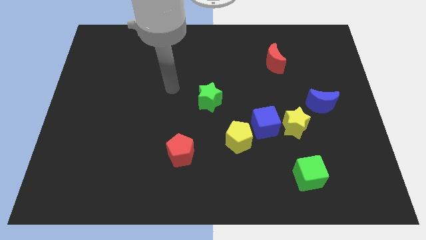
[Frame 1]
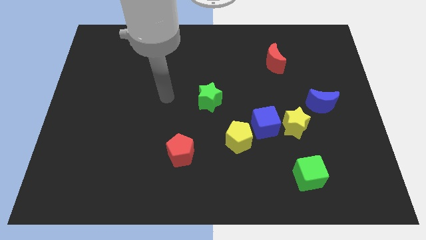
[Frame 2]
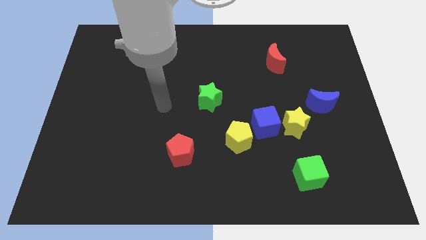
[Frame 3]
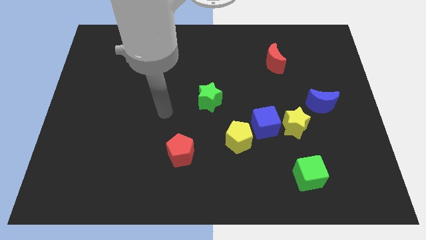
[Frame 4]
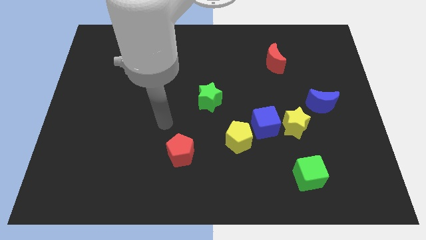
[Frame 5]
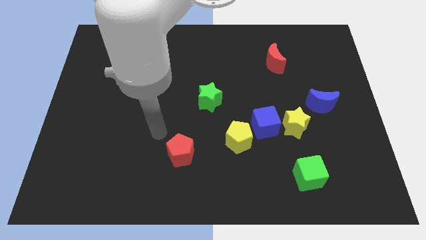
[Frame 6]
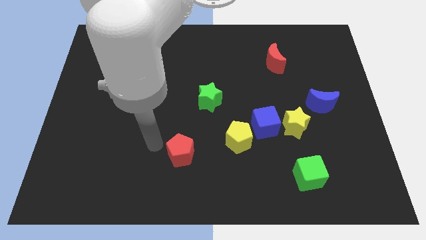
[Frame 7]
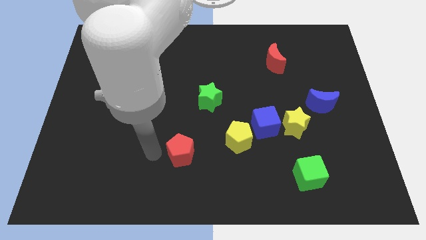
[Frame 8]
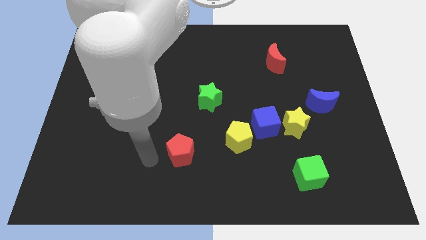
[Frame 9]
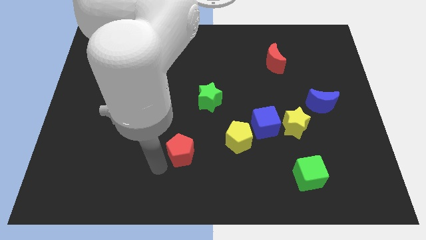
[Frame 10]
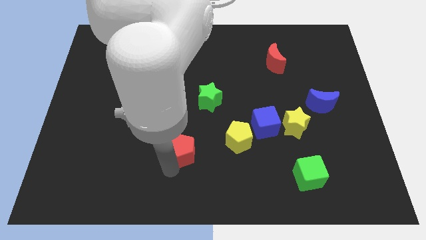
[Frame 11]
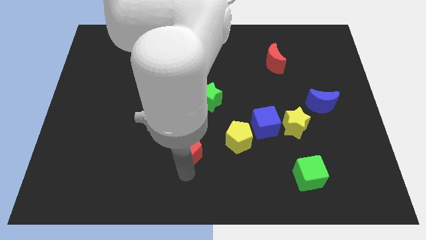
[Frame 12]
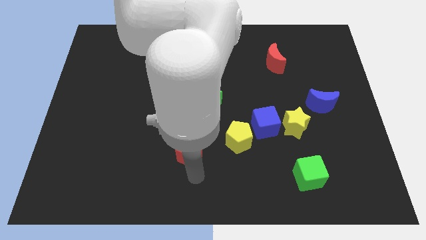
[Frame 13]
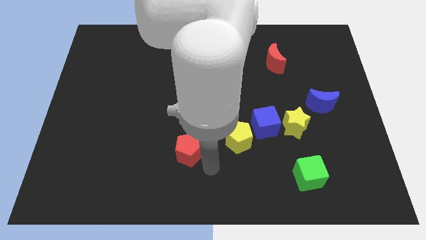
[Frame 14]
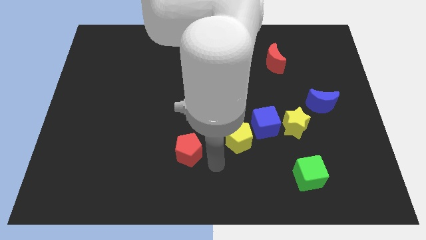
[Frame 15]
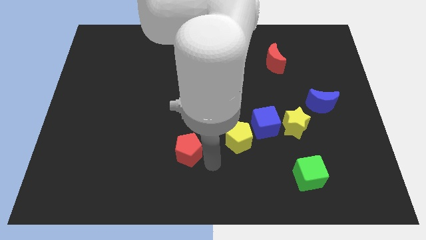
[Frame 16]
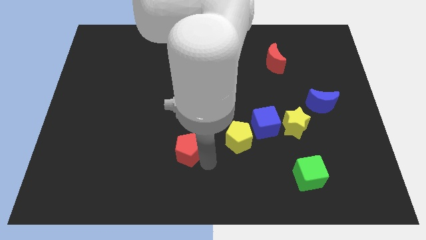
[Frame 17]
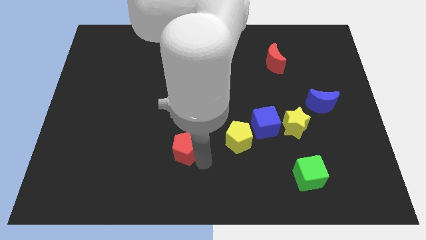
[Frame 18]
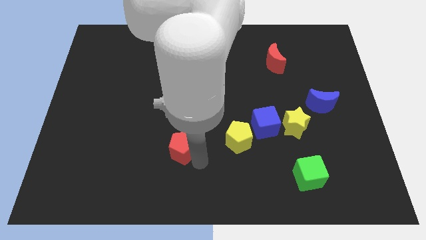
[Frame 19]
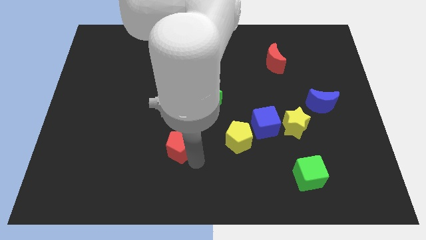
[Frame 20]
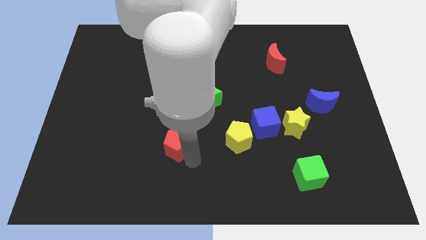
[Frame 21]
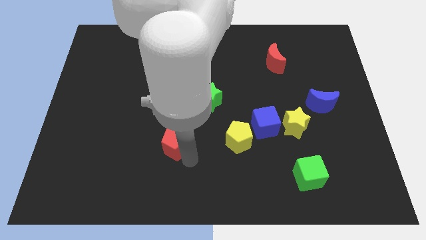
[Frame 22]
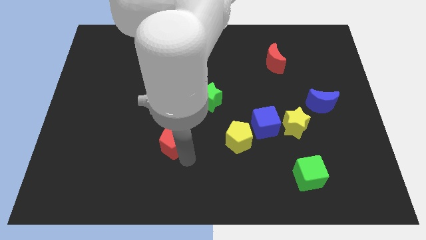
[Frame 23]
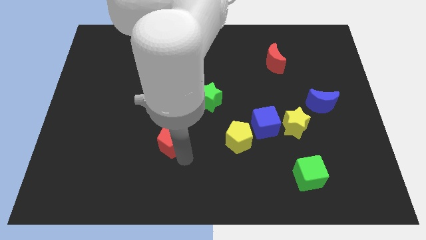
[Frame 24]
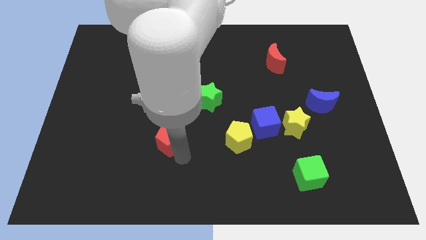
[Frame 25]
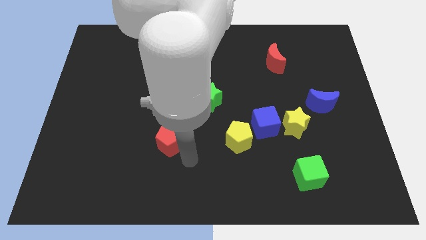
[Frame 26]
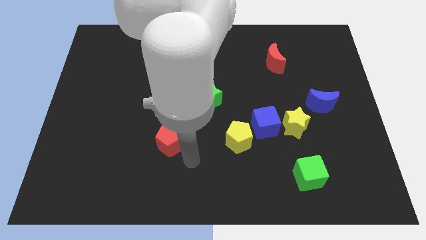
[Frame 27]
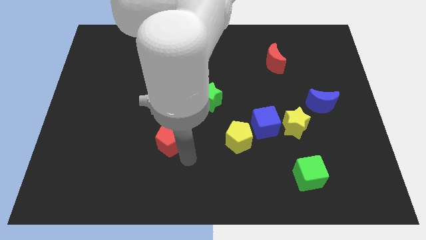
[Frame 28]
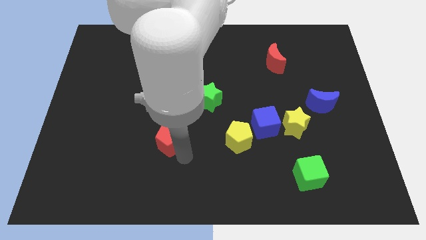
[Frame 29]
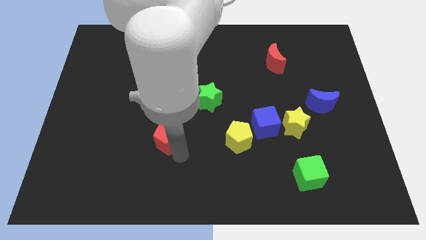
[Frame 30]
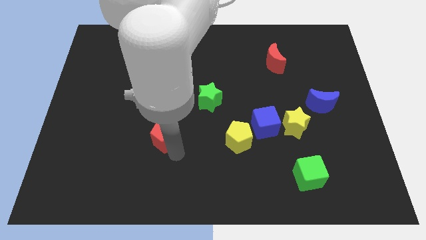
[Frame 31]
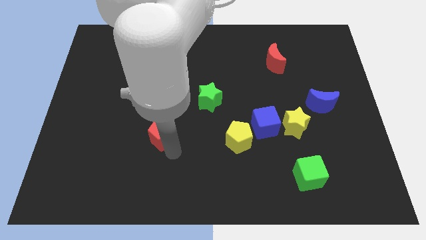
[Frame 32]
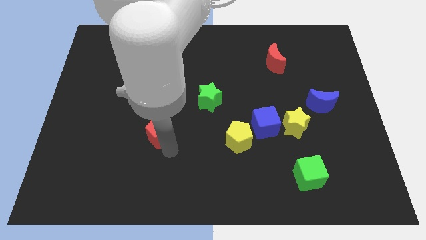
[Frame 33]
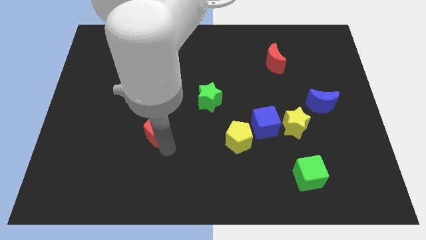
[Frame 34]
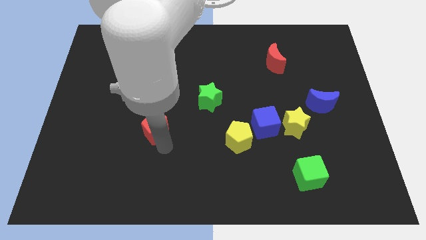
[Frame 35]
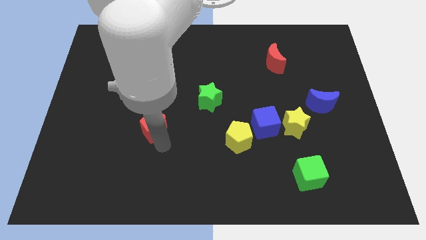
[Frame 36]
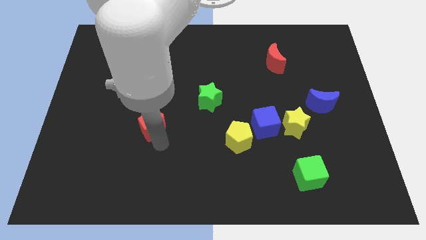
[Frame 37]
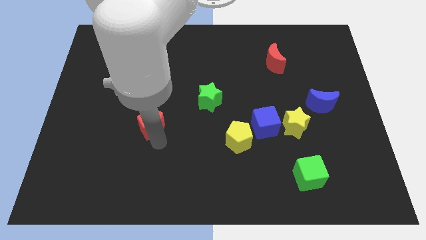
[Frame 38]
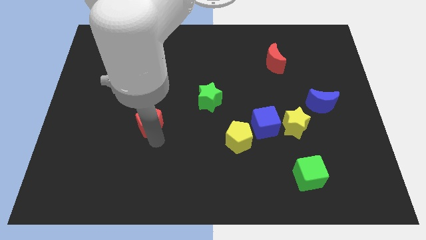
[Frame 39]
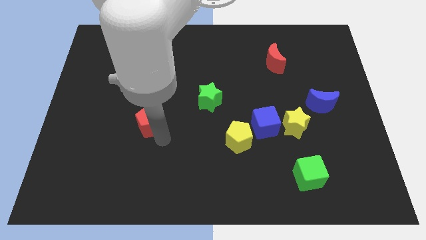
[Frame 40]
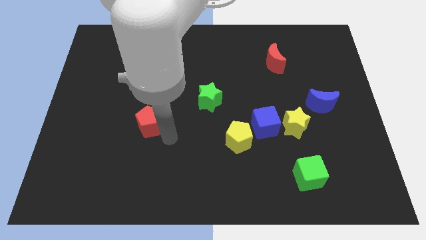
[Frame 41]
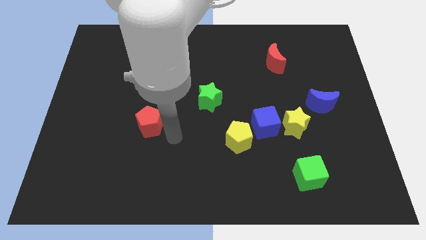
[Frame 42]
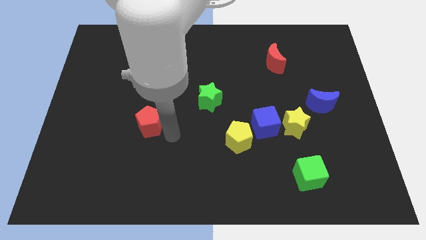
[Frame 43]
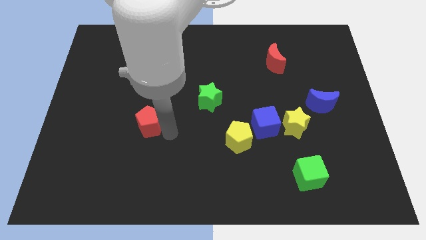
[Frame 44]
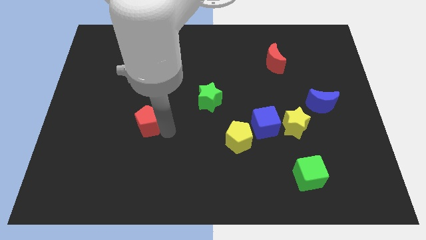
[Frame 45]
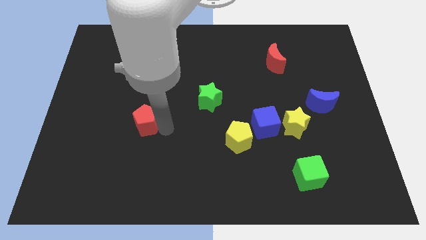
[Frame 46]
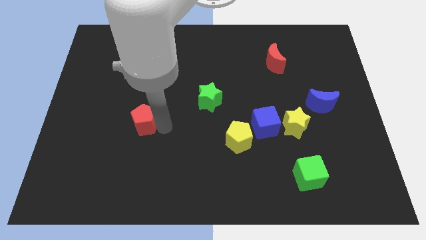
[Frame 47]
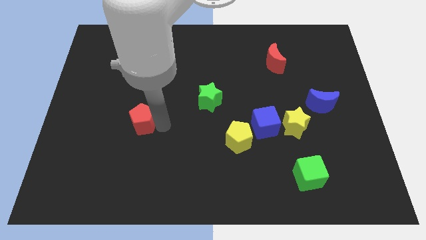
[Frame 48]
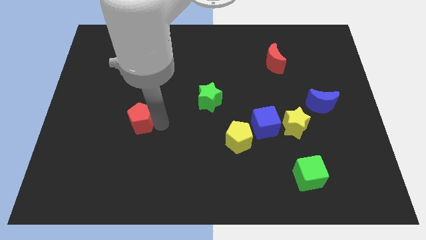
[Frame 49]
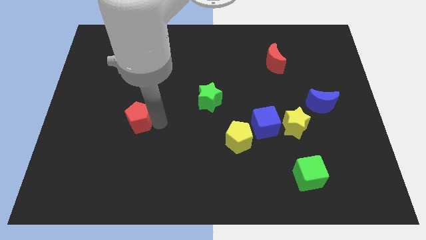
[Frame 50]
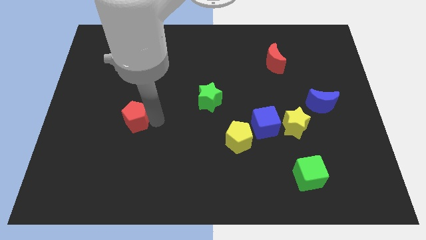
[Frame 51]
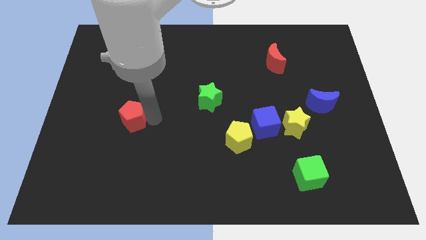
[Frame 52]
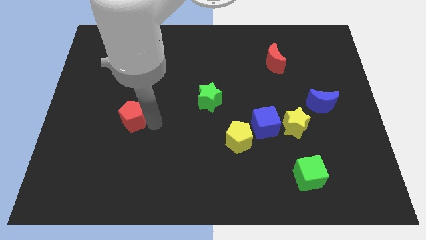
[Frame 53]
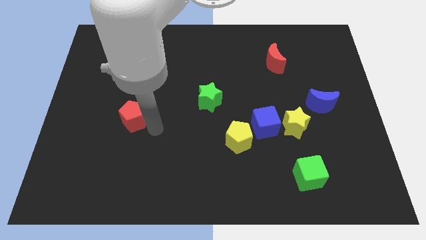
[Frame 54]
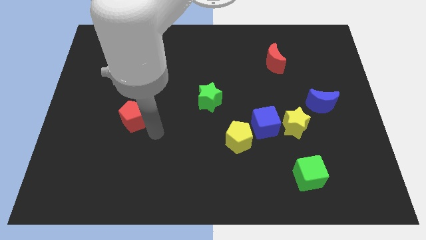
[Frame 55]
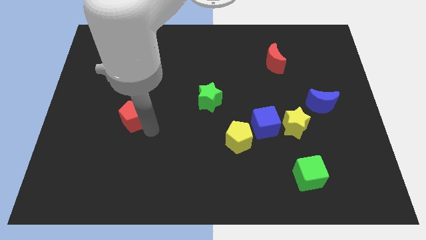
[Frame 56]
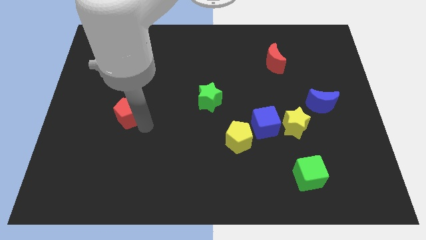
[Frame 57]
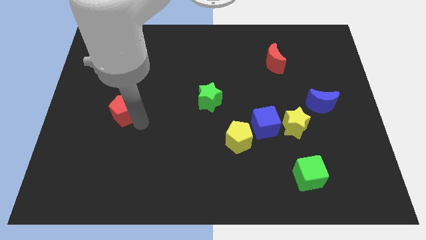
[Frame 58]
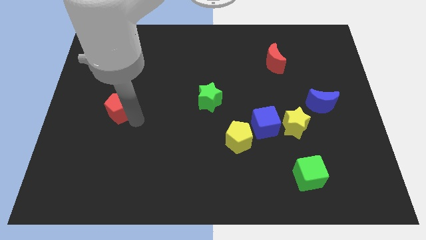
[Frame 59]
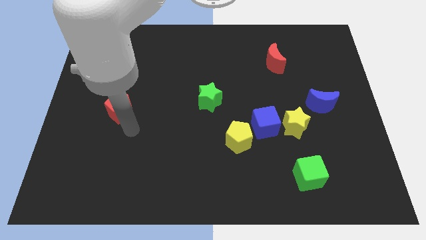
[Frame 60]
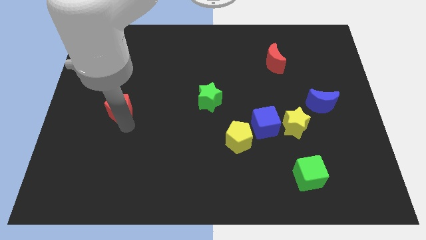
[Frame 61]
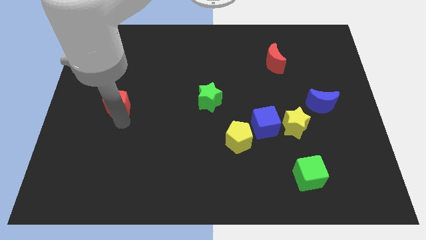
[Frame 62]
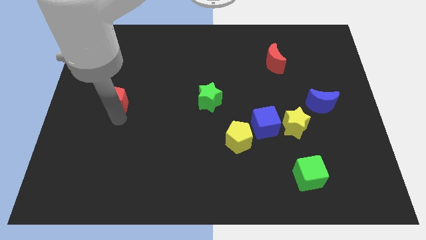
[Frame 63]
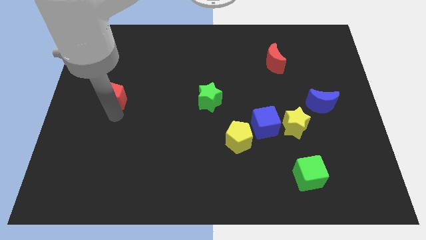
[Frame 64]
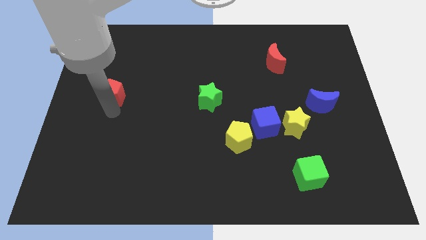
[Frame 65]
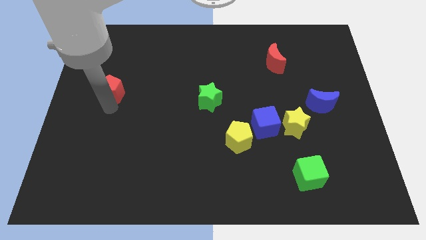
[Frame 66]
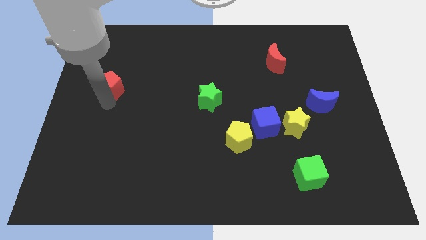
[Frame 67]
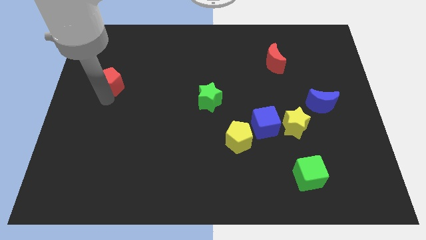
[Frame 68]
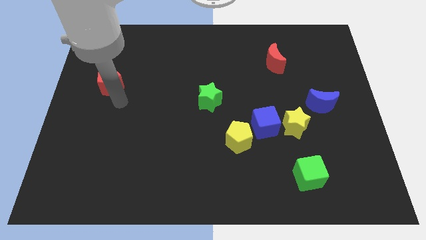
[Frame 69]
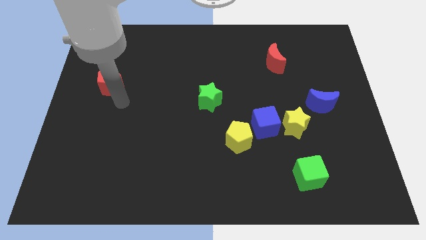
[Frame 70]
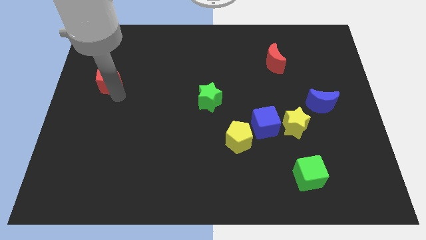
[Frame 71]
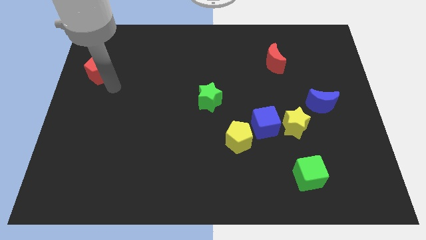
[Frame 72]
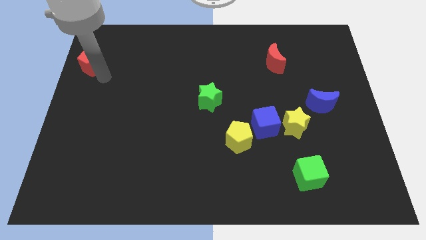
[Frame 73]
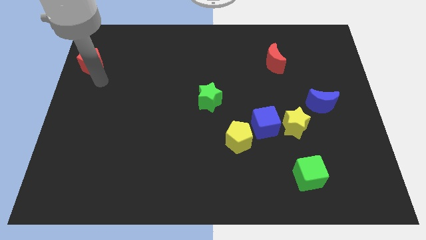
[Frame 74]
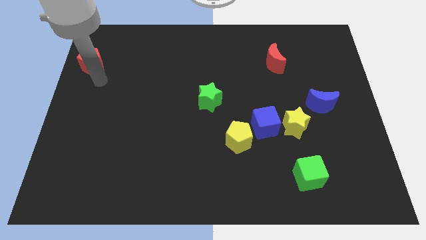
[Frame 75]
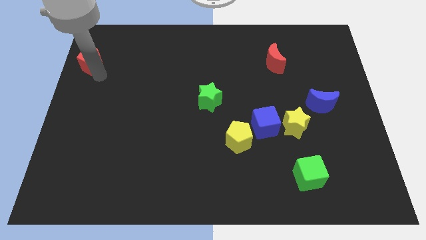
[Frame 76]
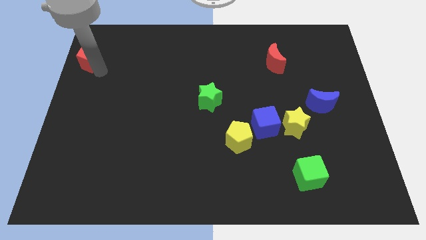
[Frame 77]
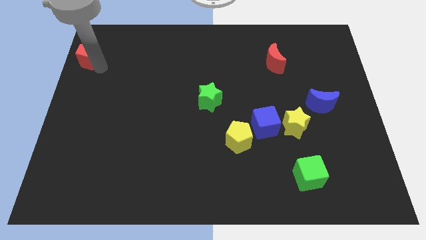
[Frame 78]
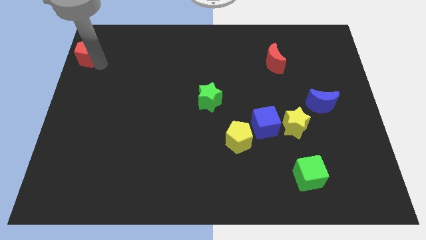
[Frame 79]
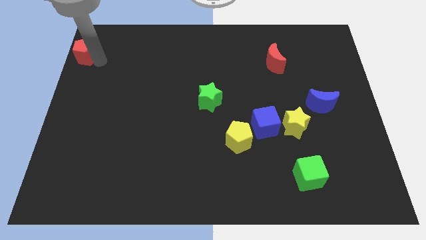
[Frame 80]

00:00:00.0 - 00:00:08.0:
slide the red pentagon to the upper left corner
